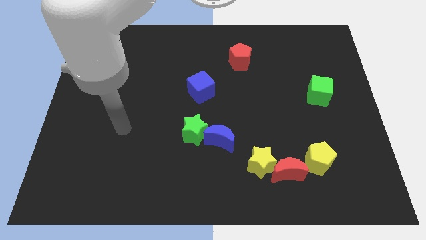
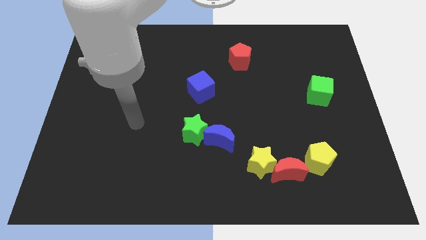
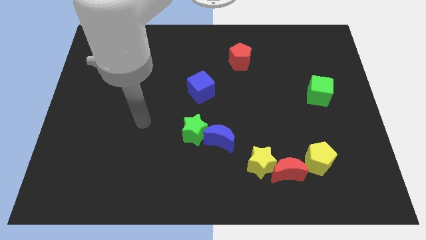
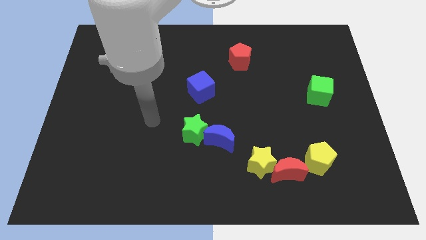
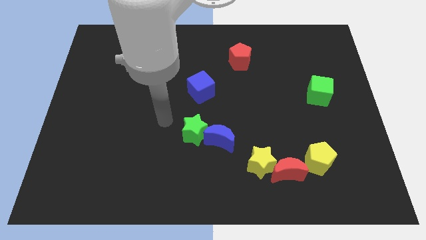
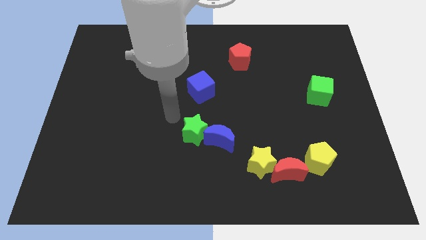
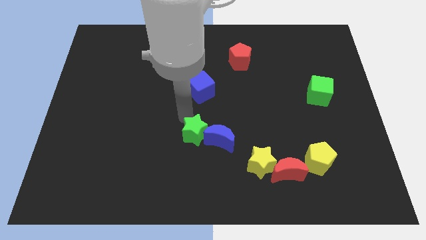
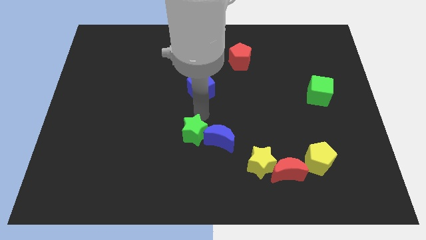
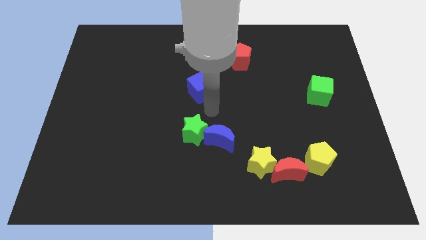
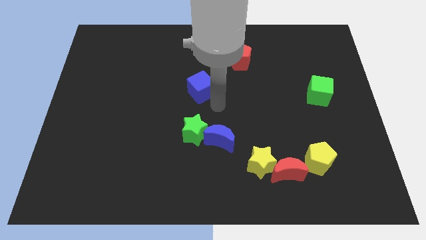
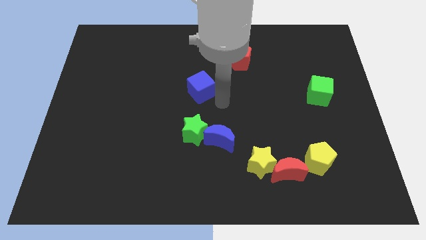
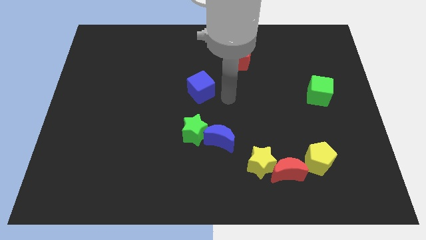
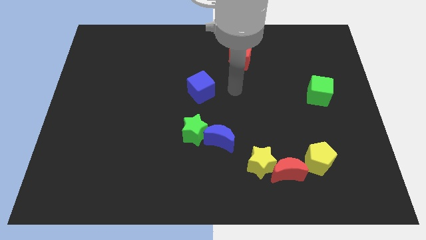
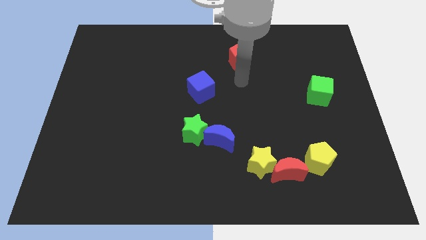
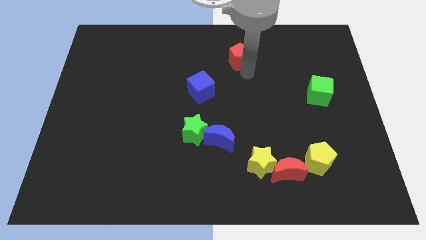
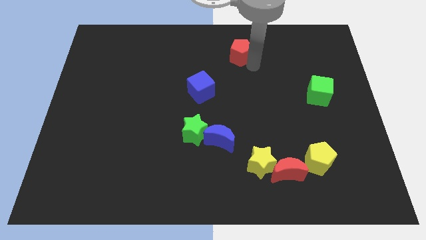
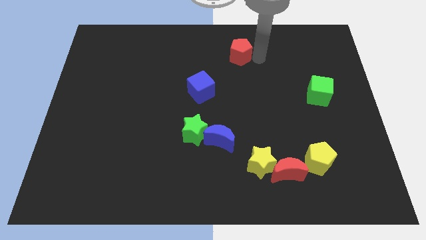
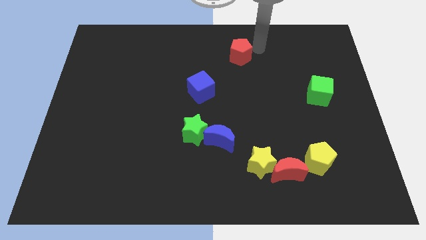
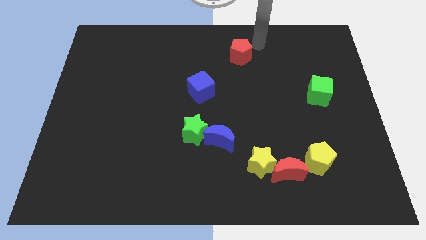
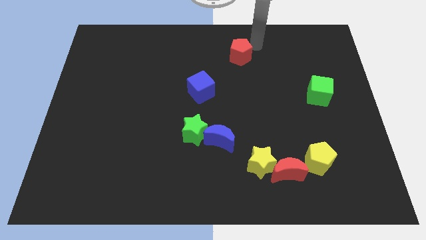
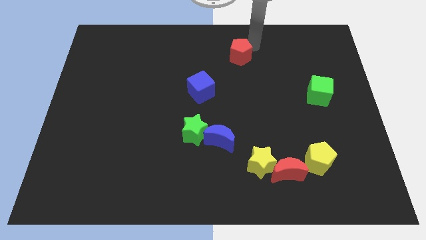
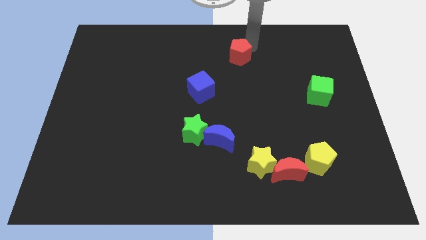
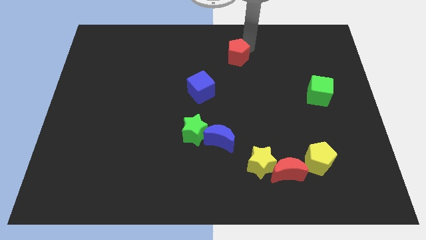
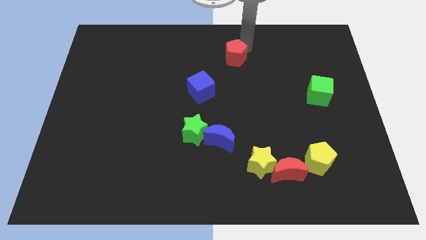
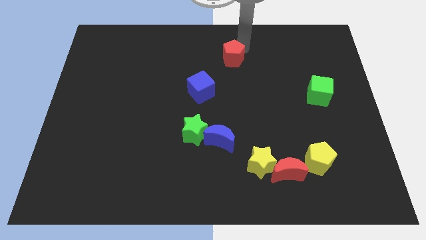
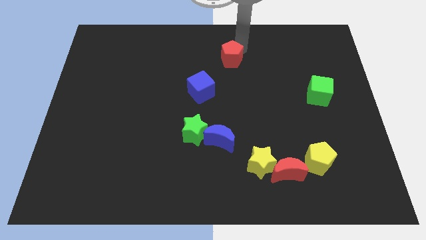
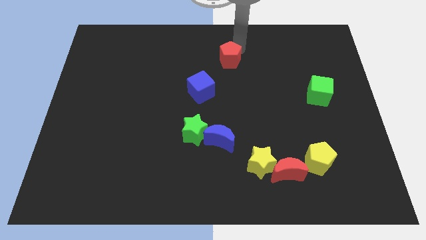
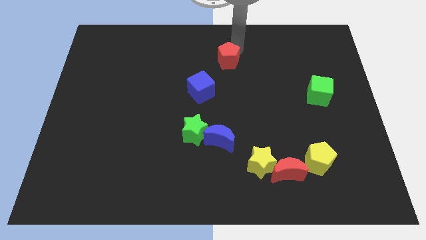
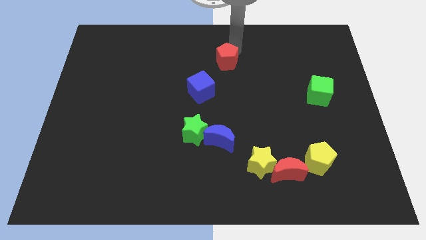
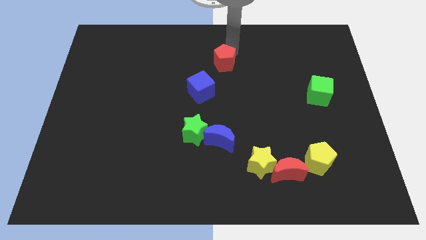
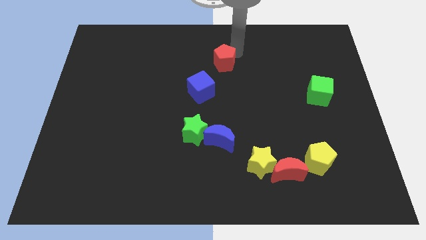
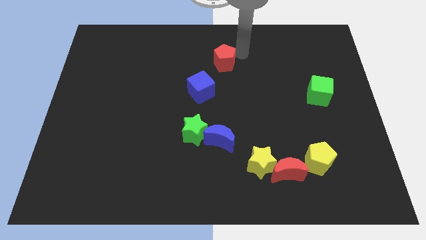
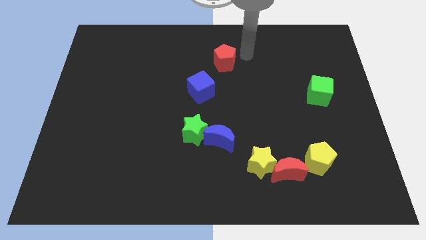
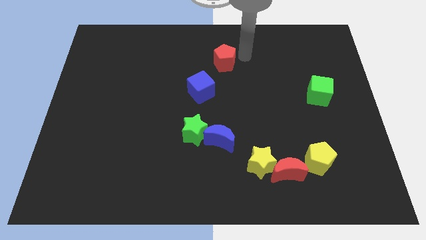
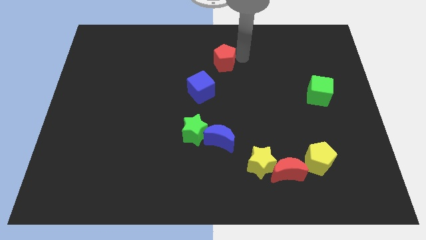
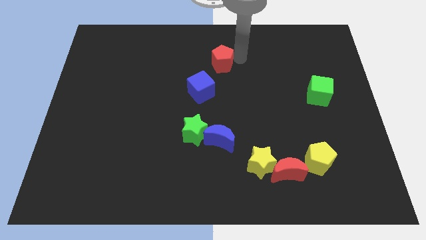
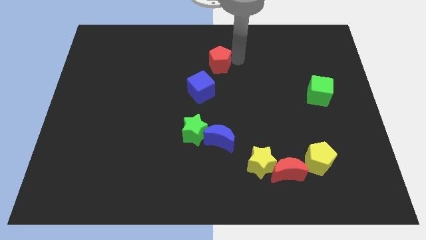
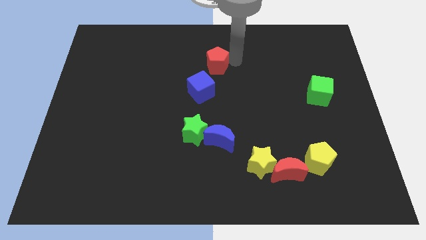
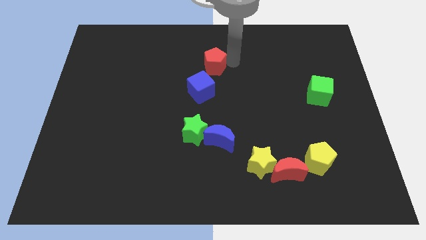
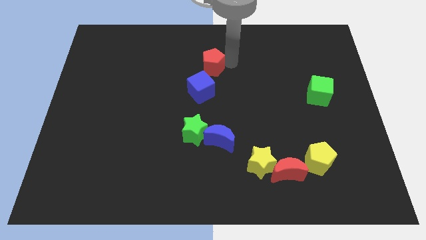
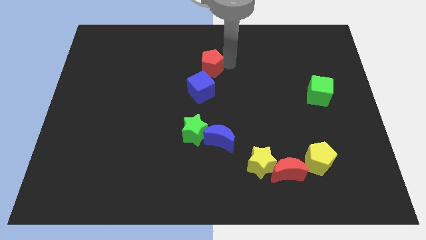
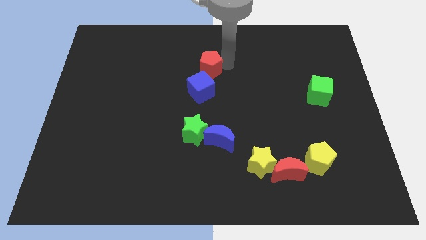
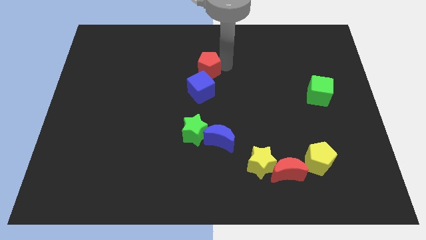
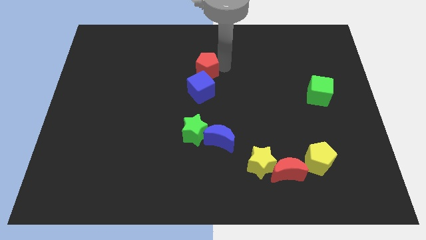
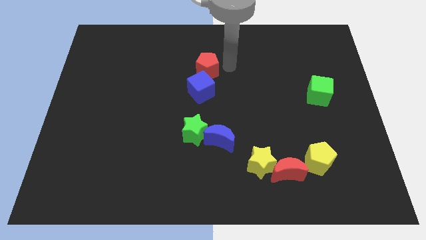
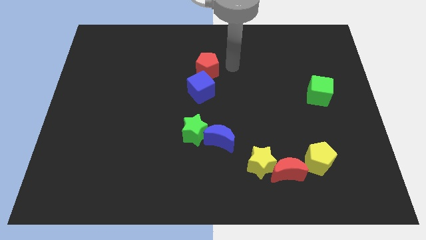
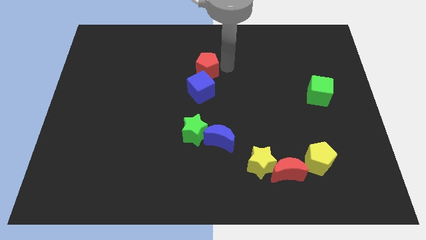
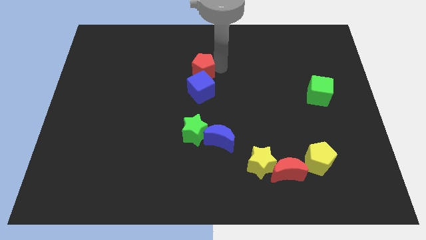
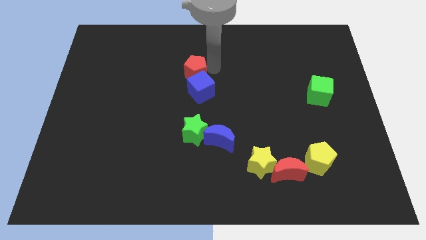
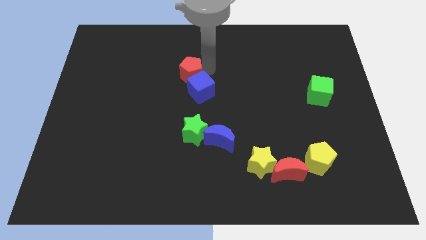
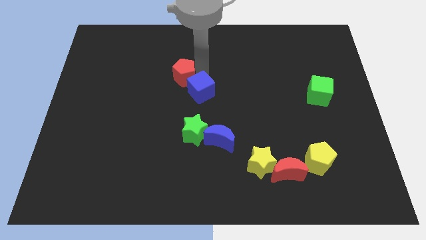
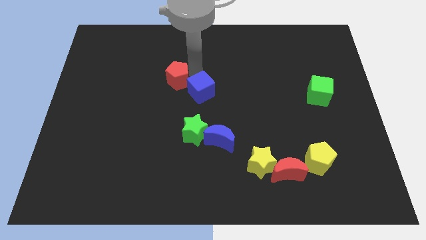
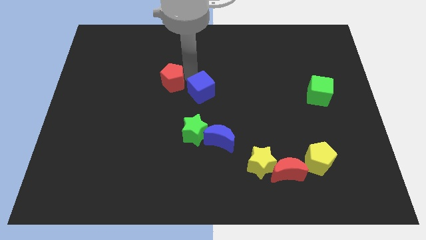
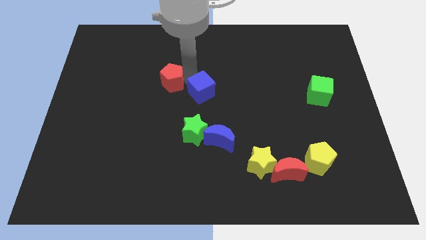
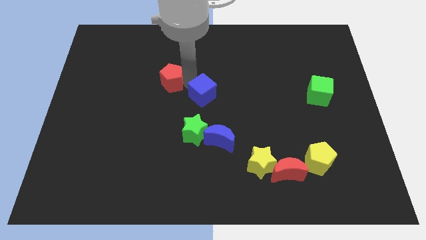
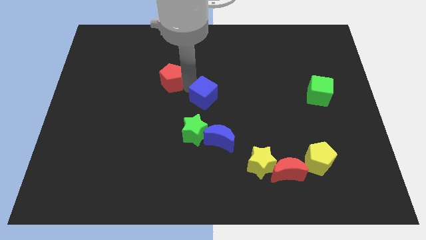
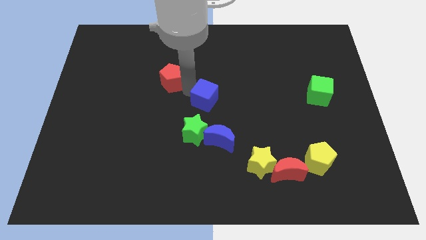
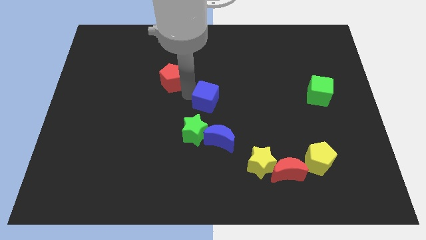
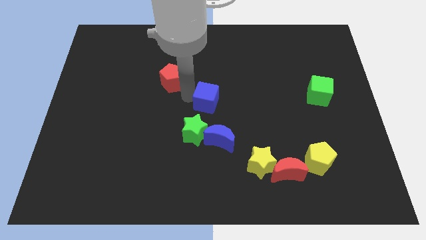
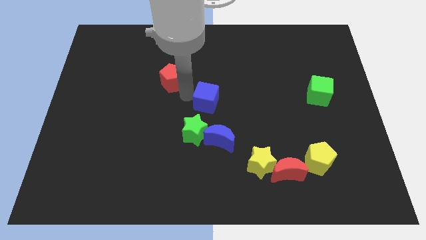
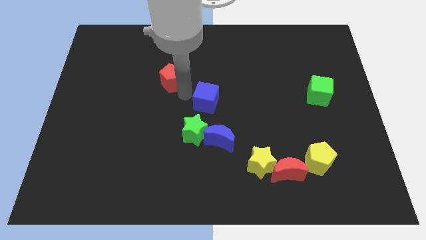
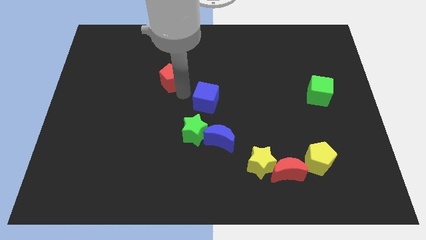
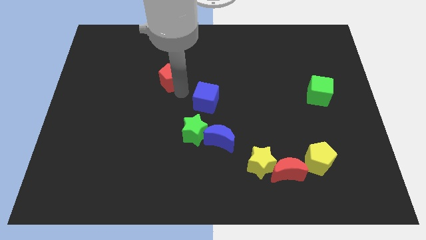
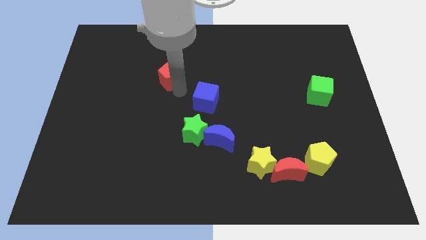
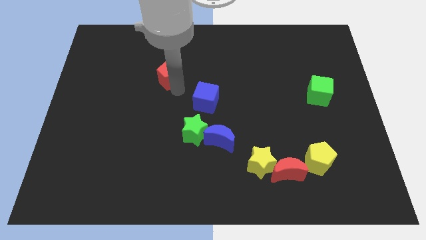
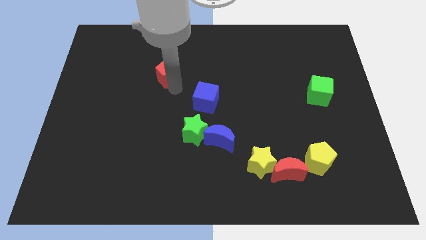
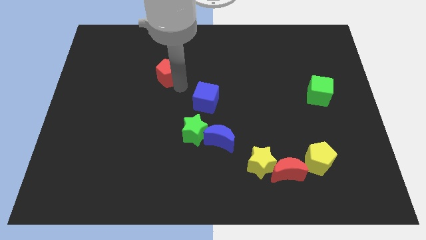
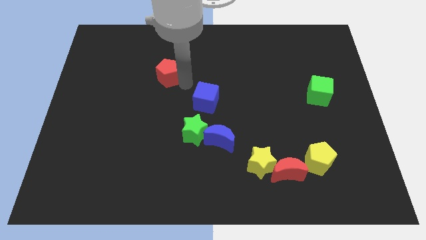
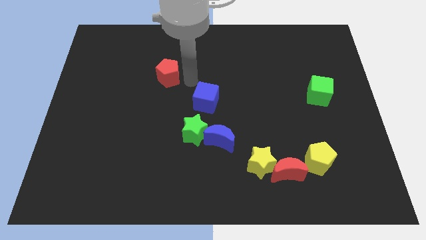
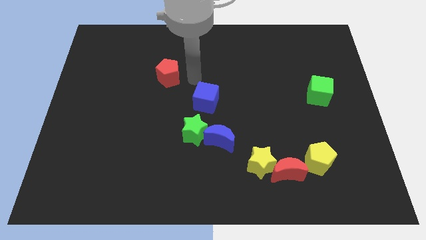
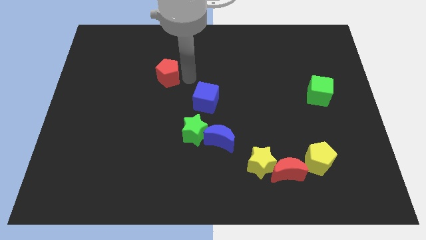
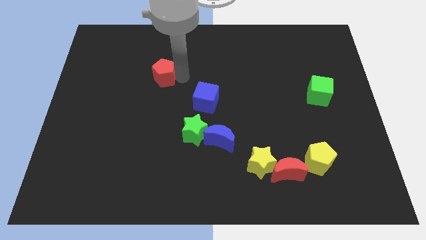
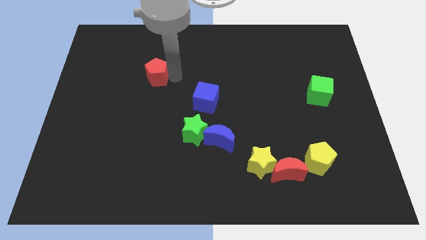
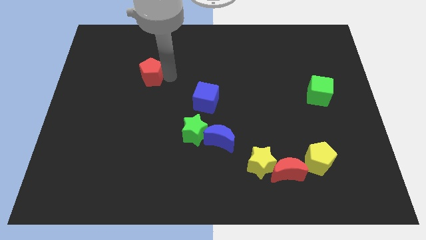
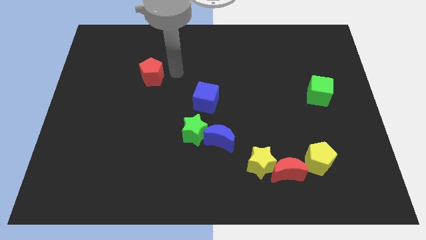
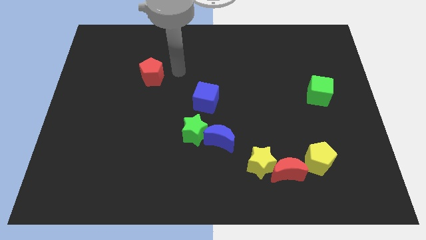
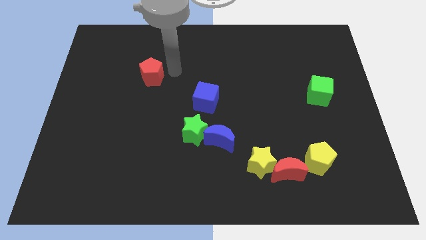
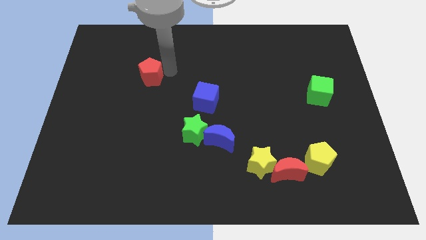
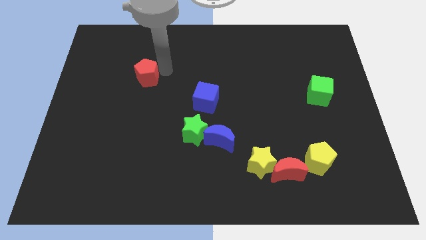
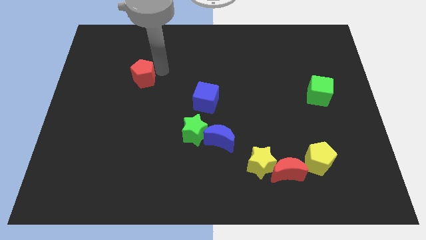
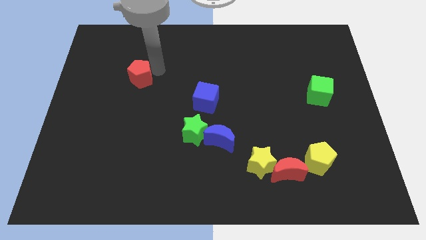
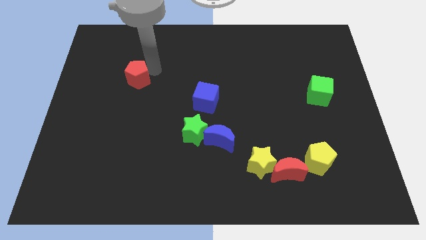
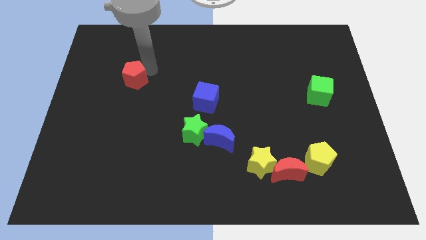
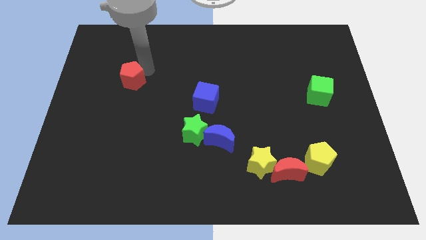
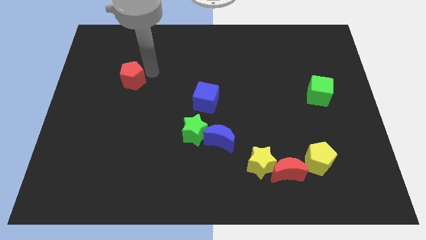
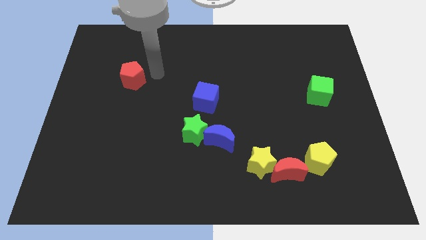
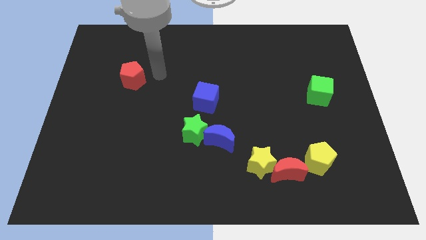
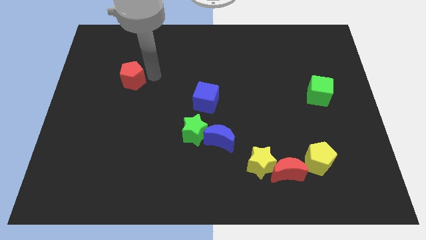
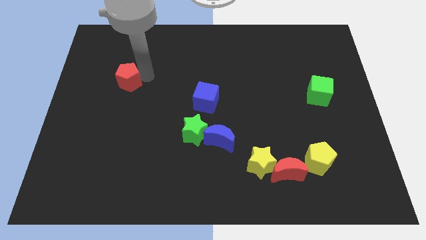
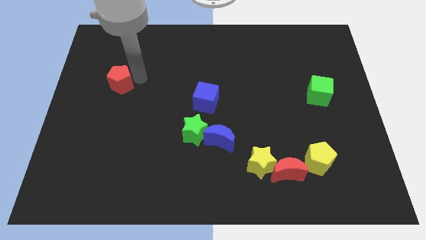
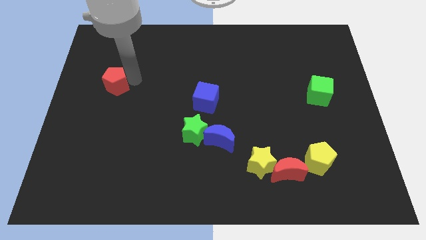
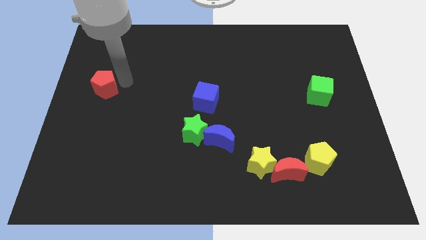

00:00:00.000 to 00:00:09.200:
put the red pentagon to the left side of the board
